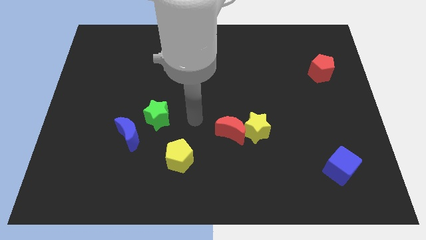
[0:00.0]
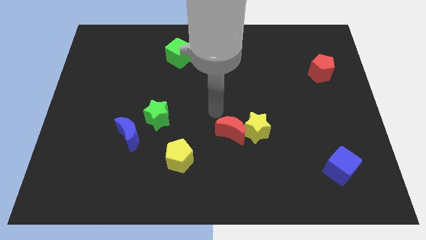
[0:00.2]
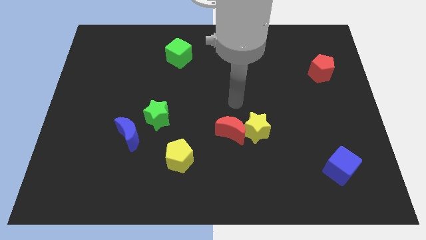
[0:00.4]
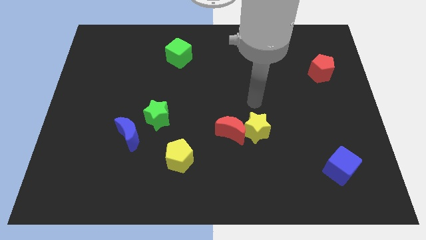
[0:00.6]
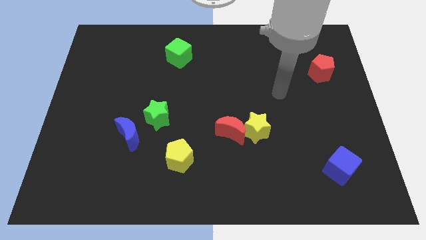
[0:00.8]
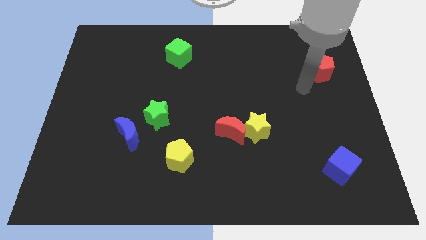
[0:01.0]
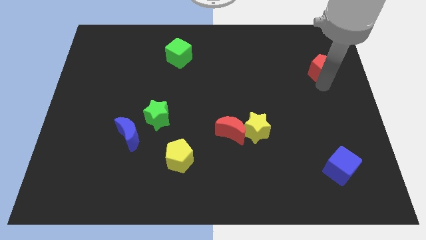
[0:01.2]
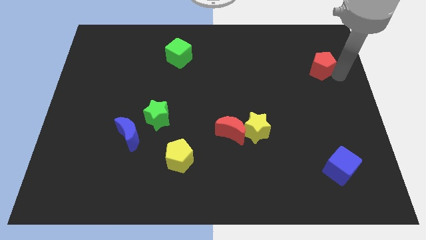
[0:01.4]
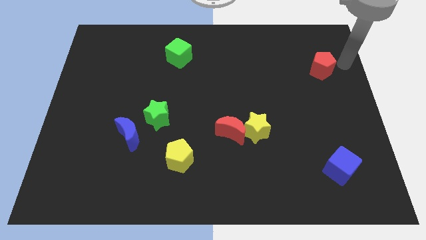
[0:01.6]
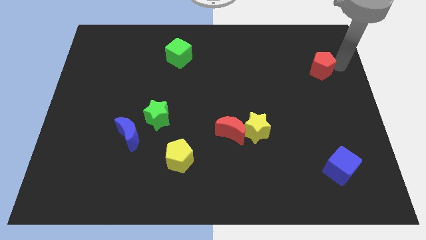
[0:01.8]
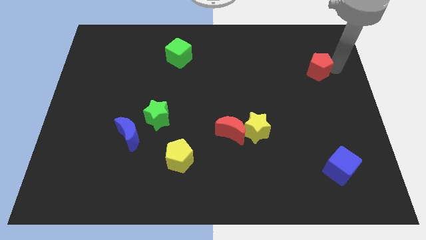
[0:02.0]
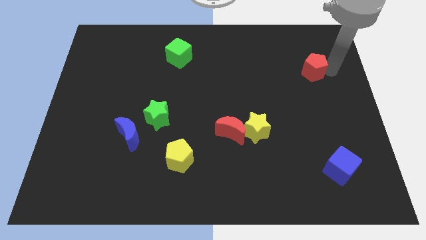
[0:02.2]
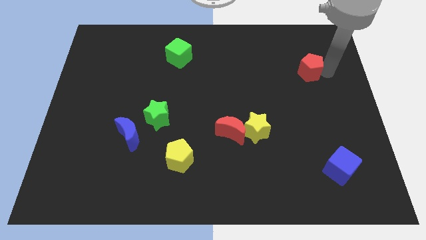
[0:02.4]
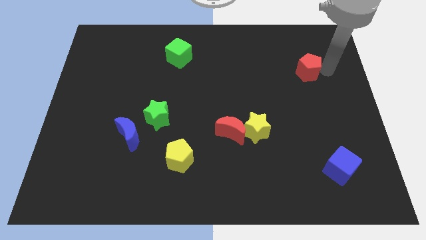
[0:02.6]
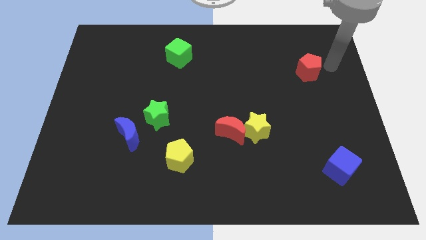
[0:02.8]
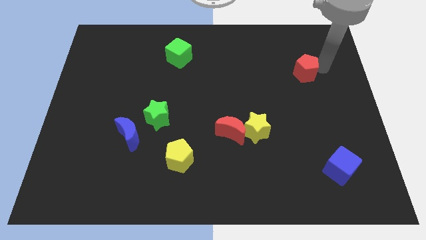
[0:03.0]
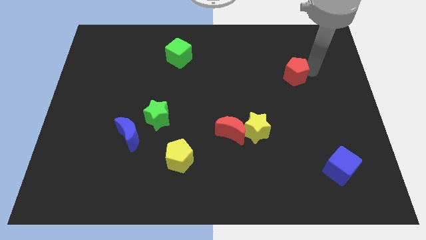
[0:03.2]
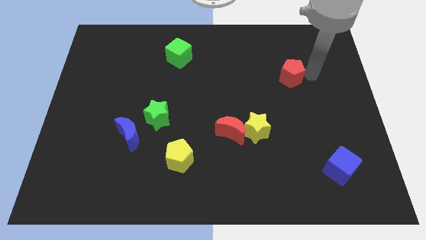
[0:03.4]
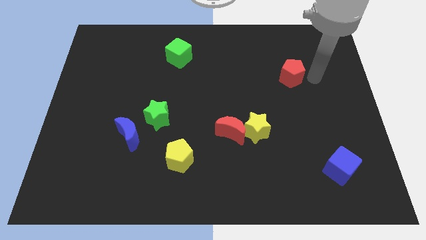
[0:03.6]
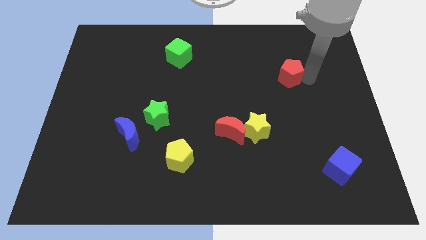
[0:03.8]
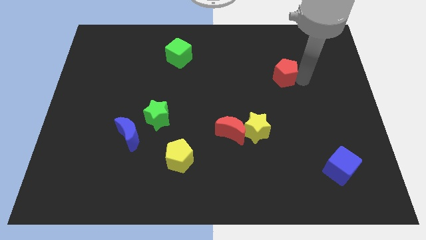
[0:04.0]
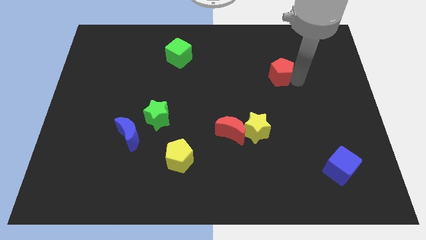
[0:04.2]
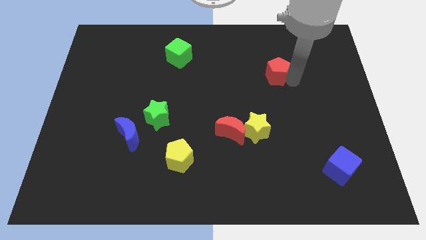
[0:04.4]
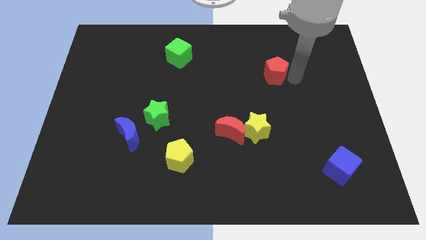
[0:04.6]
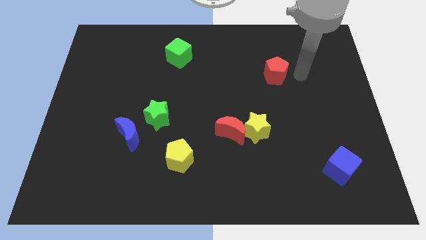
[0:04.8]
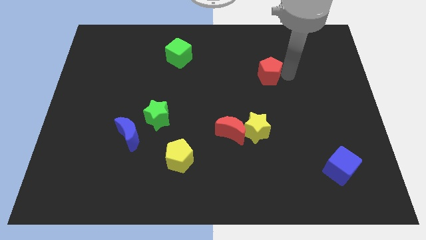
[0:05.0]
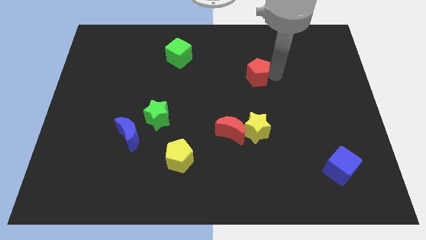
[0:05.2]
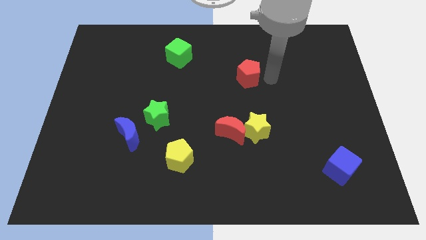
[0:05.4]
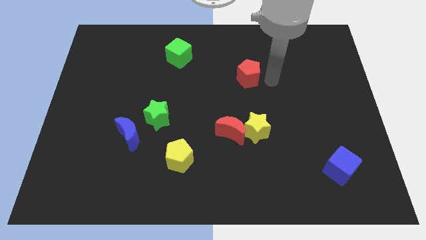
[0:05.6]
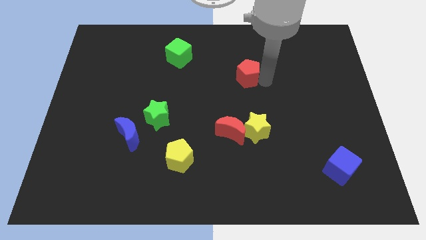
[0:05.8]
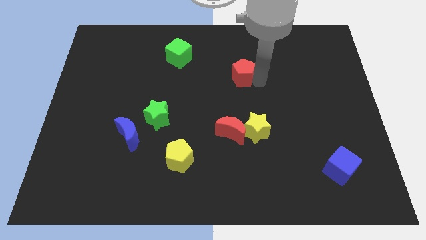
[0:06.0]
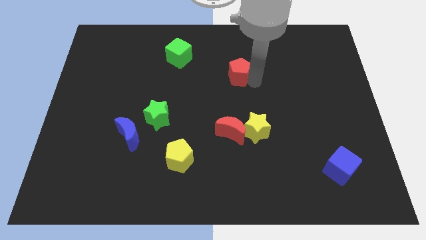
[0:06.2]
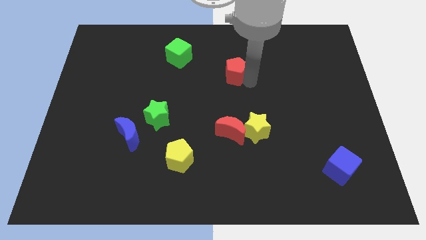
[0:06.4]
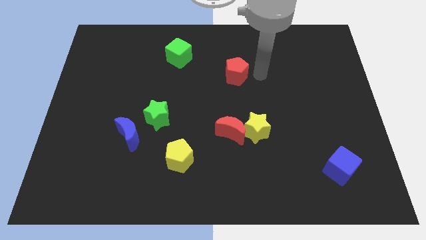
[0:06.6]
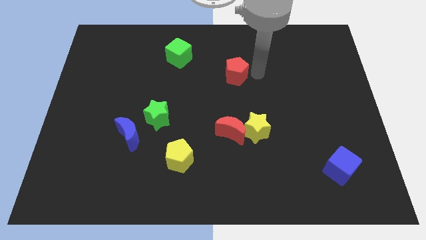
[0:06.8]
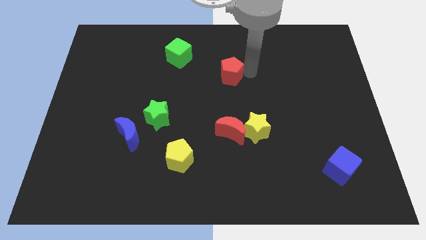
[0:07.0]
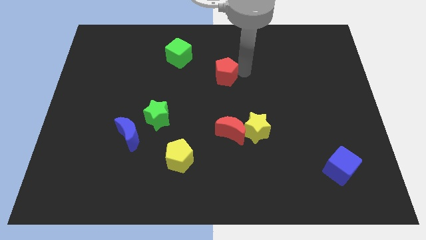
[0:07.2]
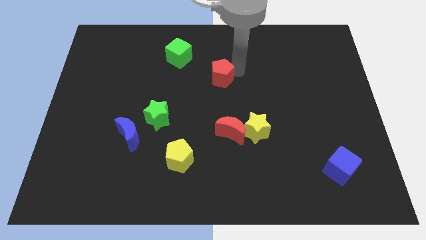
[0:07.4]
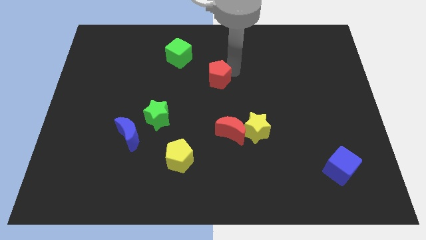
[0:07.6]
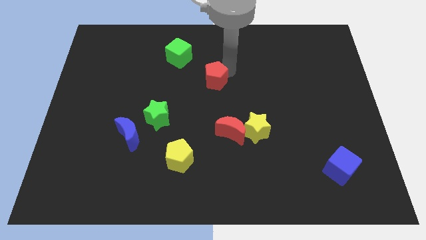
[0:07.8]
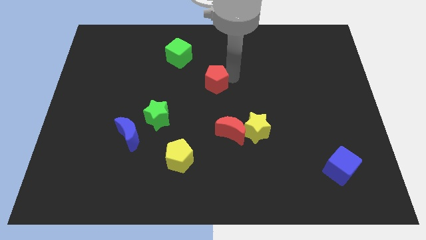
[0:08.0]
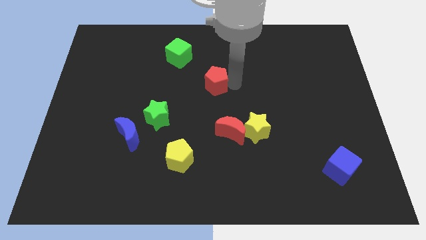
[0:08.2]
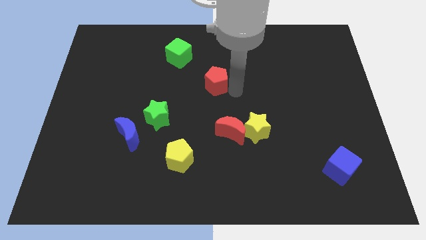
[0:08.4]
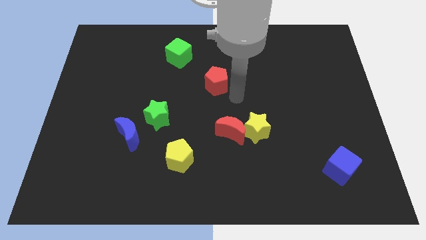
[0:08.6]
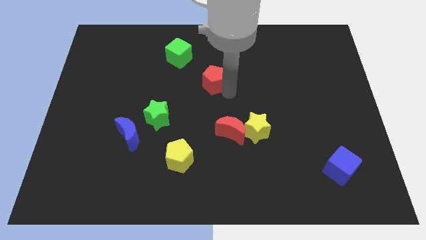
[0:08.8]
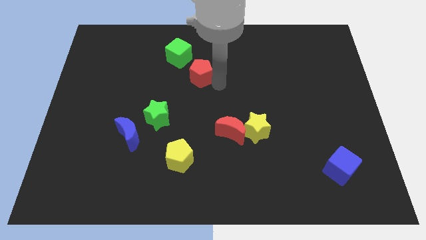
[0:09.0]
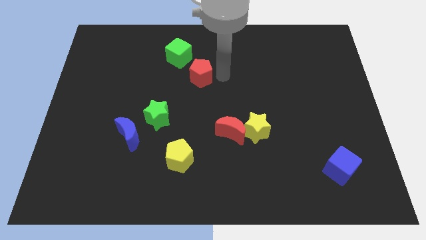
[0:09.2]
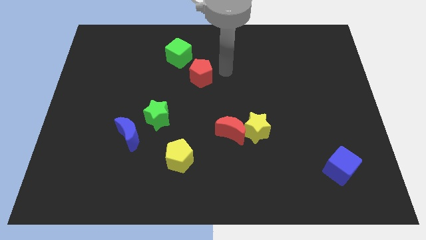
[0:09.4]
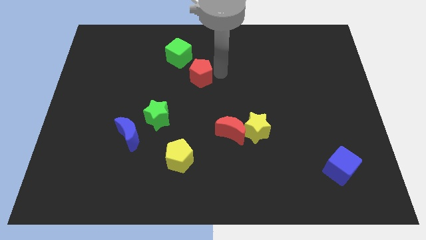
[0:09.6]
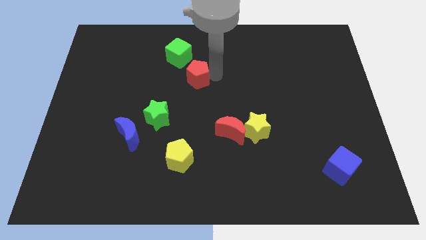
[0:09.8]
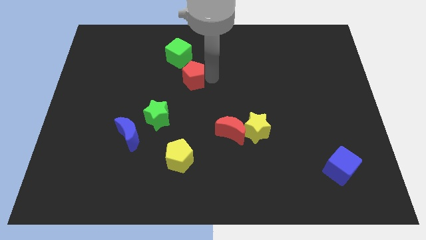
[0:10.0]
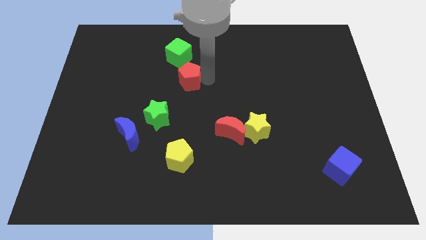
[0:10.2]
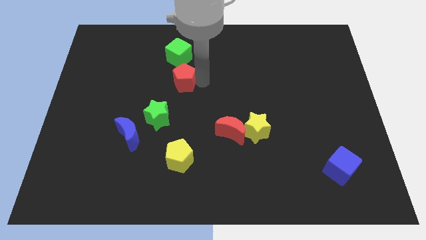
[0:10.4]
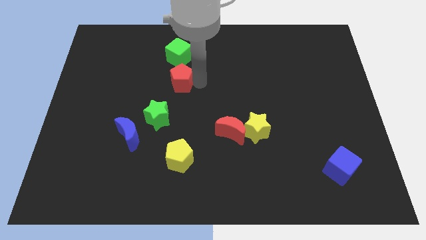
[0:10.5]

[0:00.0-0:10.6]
slide the red pentagon to the top of the green star

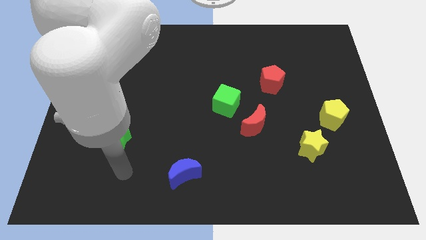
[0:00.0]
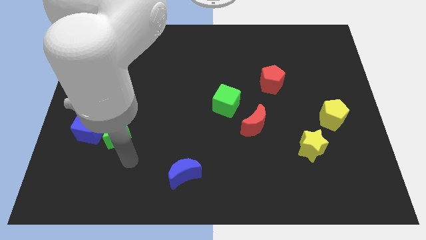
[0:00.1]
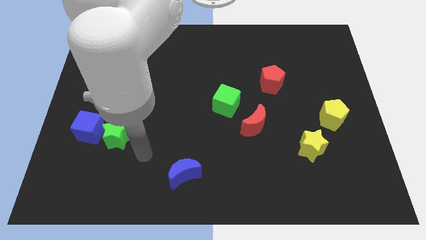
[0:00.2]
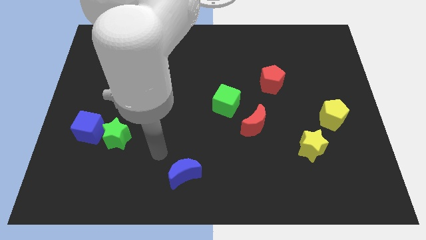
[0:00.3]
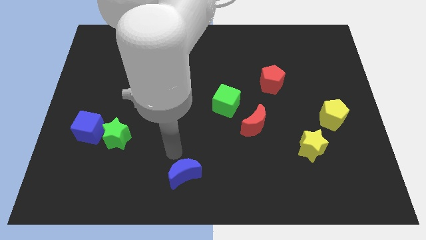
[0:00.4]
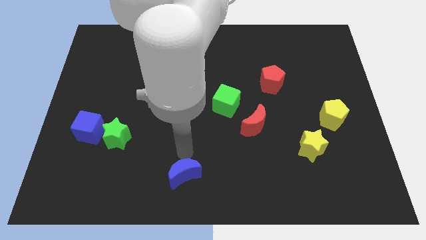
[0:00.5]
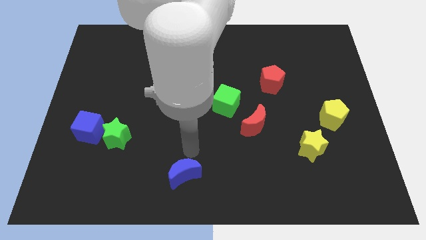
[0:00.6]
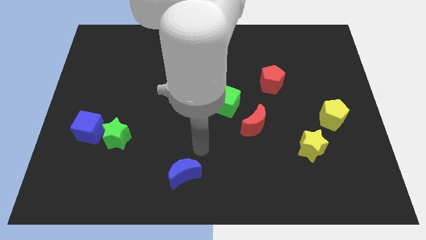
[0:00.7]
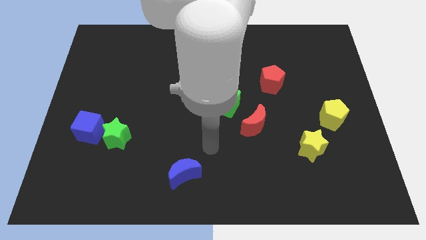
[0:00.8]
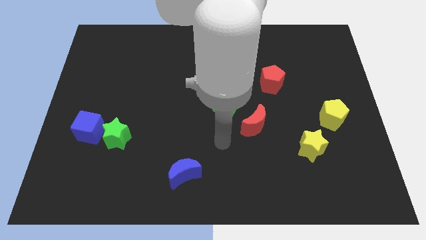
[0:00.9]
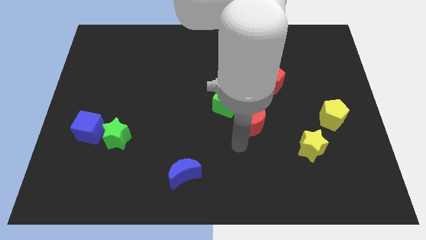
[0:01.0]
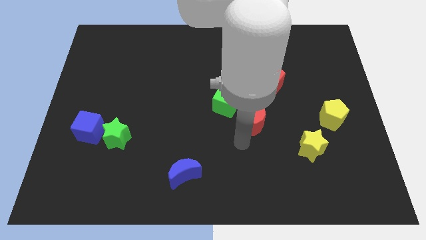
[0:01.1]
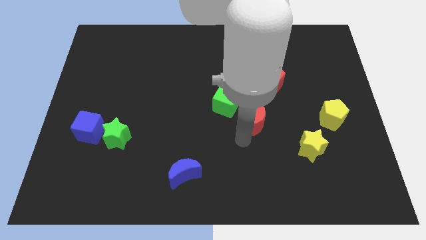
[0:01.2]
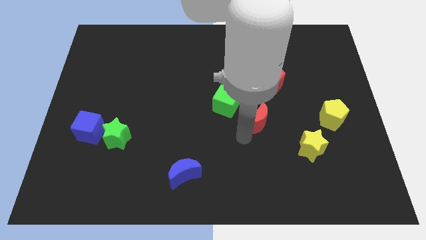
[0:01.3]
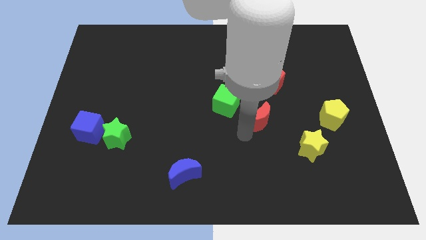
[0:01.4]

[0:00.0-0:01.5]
put the red moon right of the green cube
